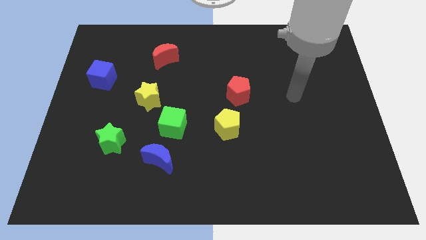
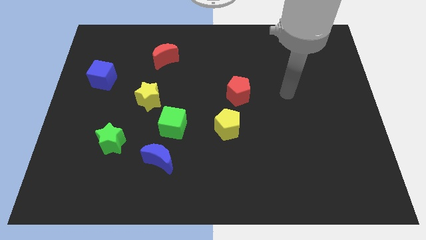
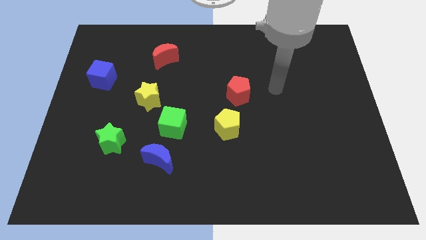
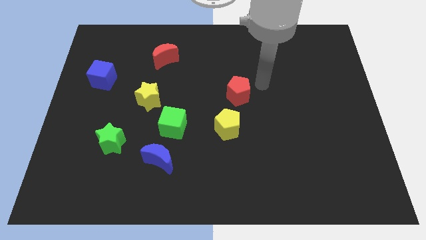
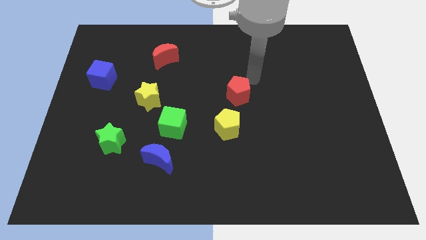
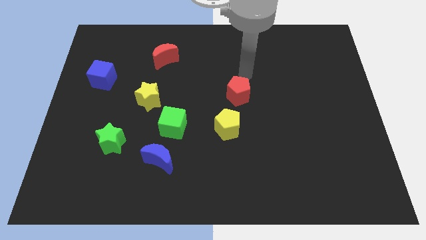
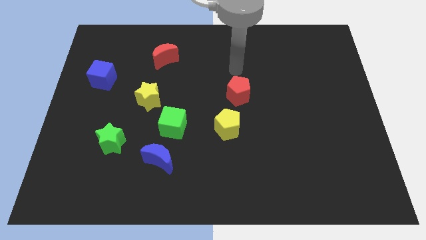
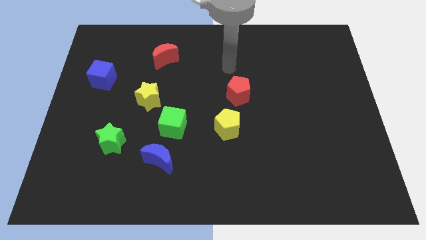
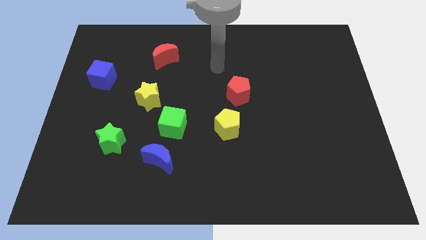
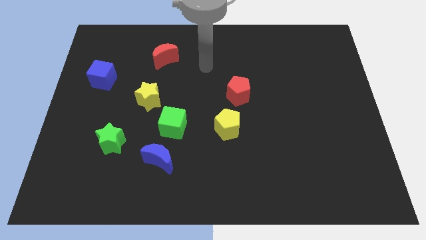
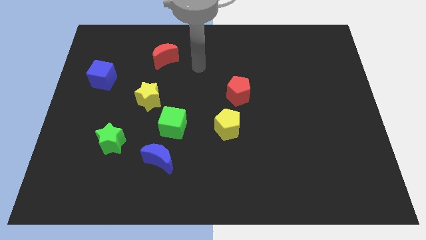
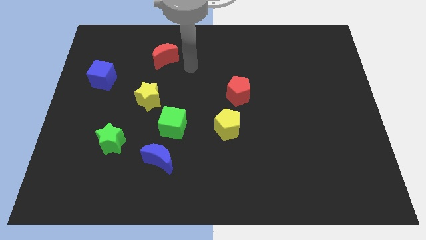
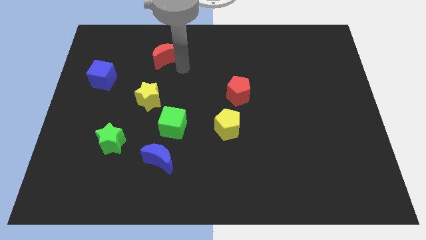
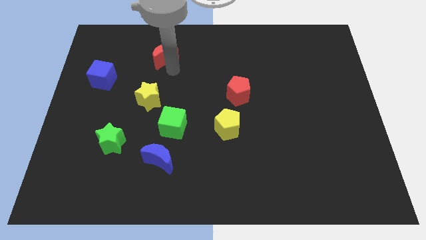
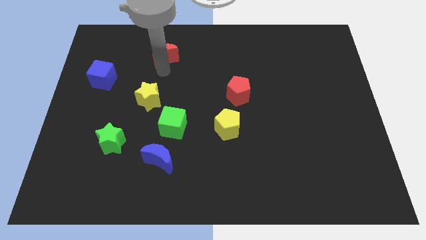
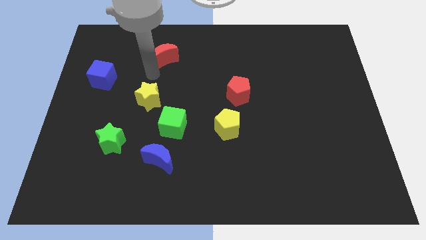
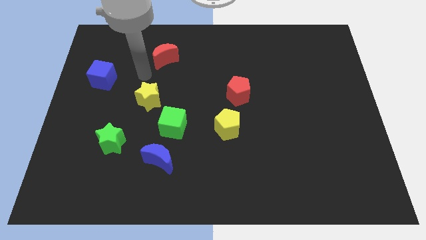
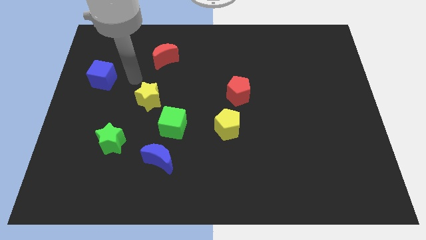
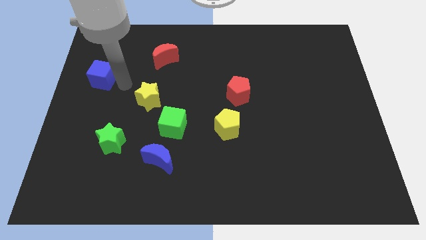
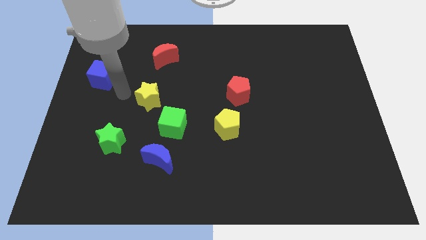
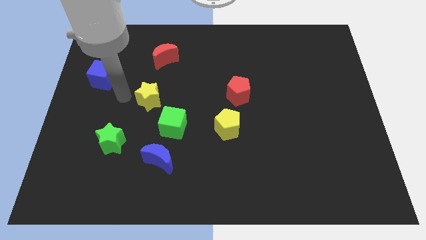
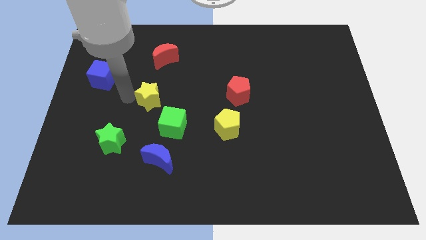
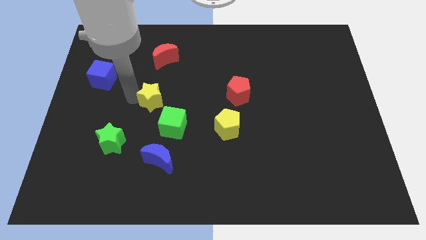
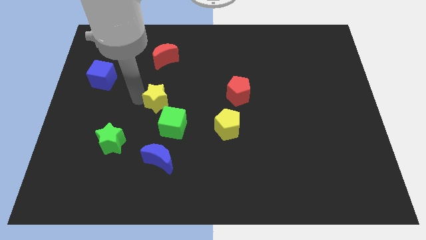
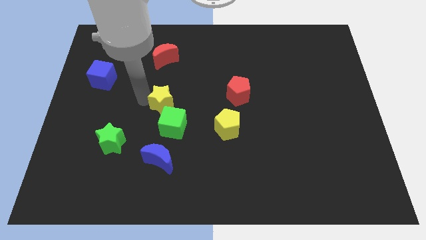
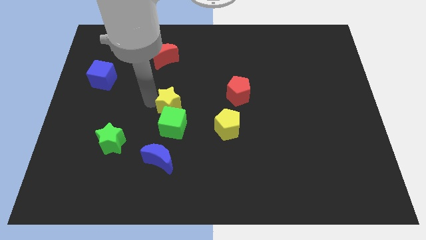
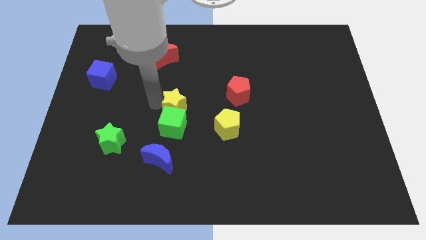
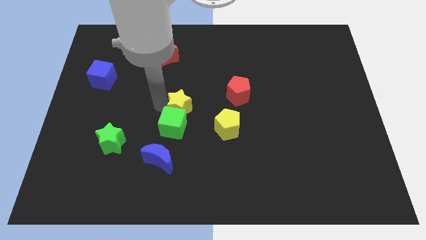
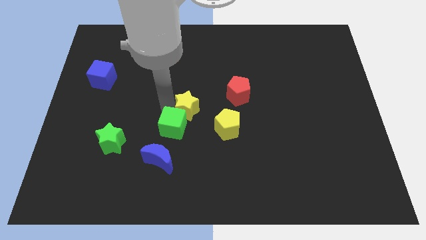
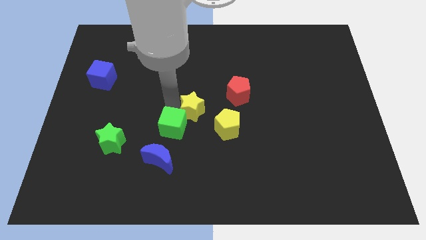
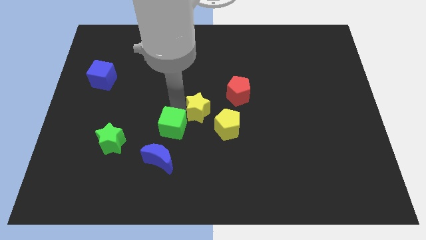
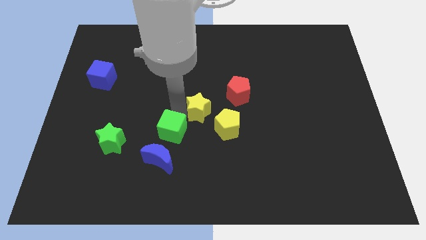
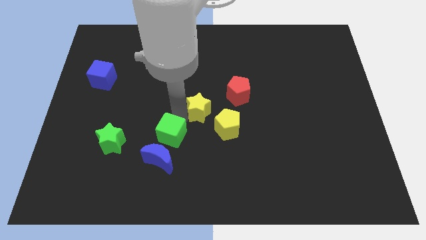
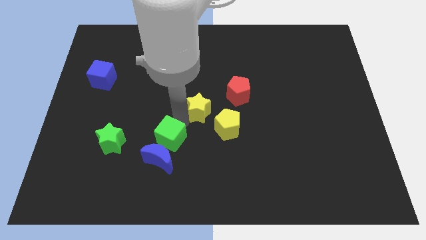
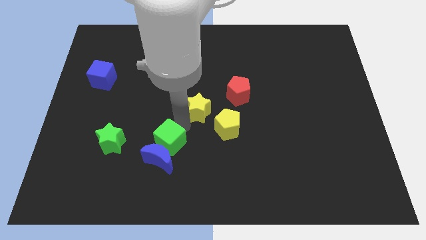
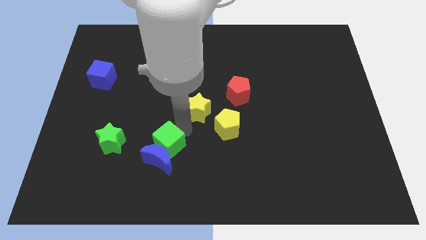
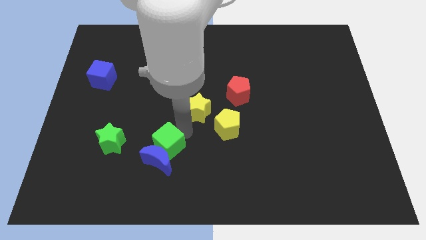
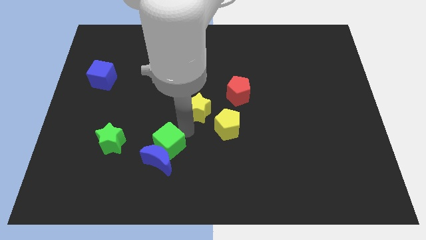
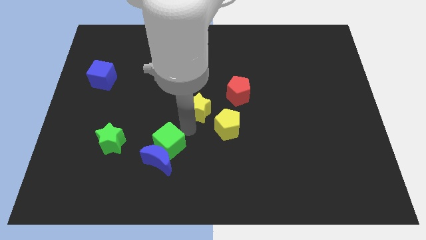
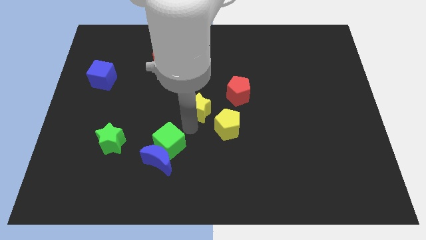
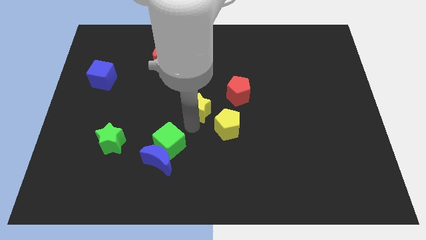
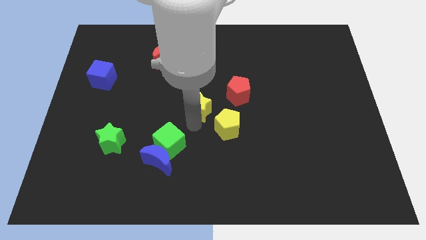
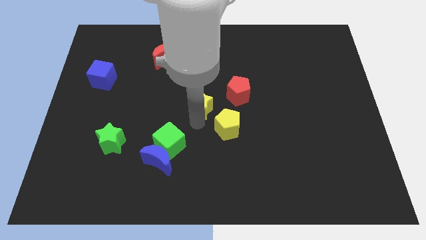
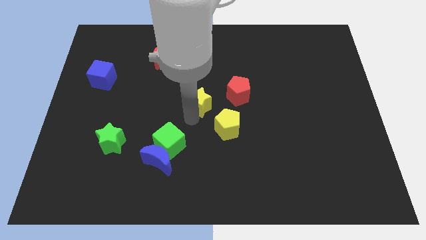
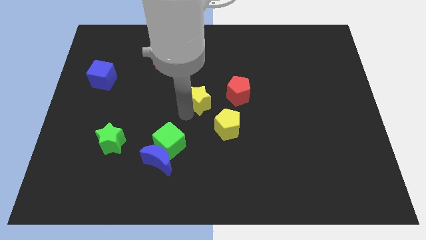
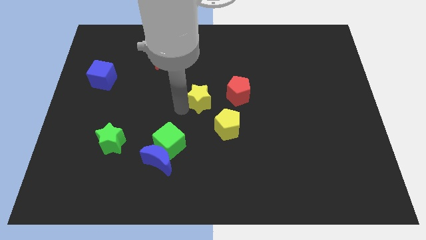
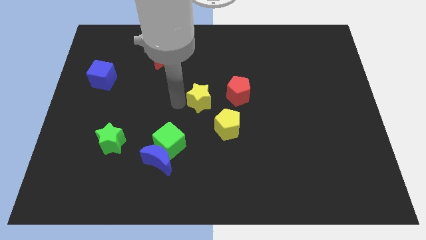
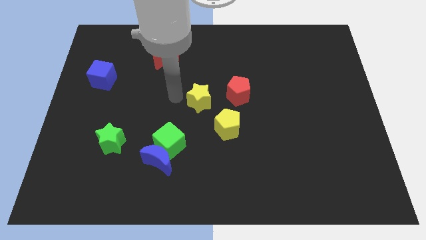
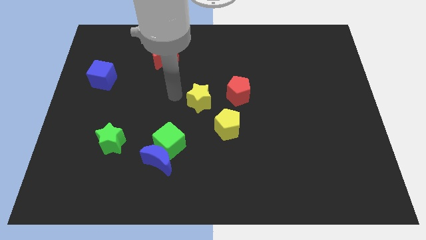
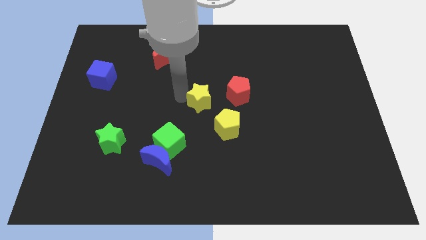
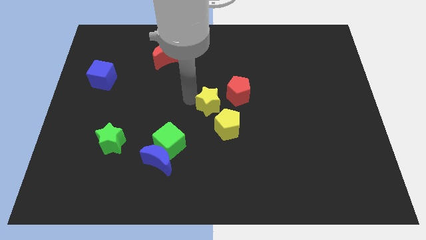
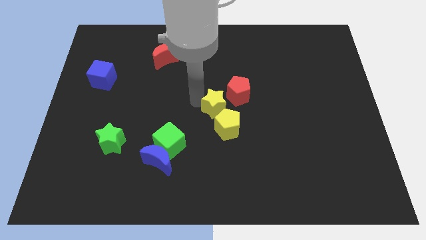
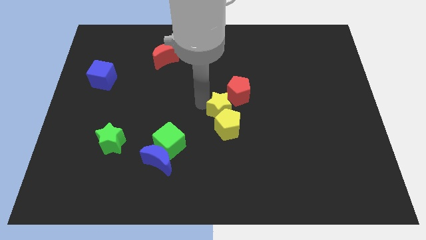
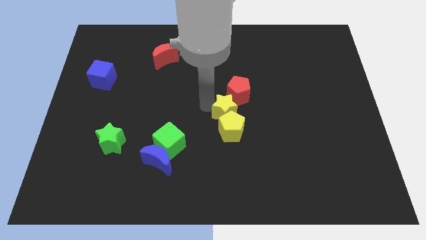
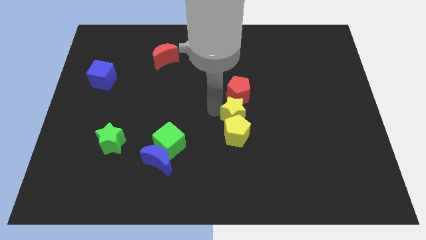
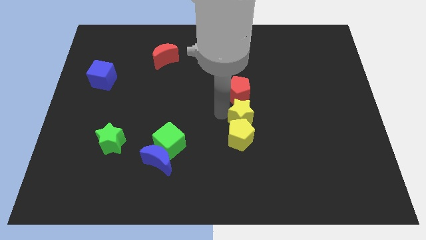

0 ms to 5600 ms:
slide the yellow star diagonally down and to the right of the red pentagon

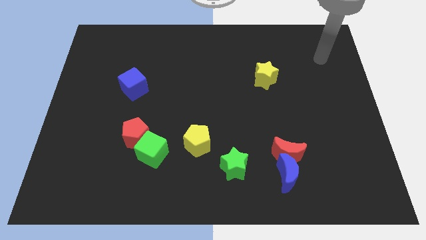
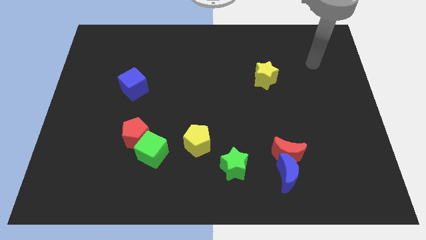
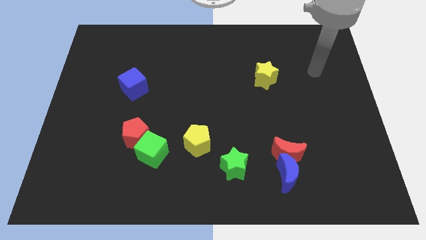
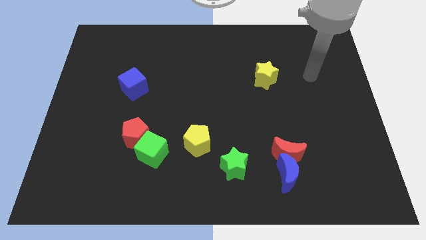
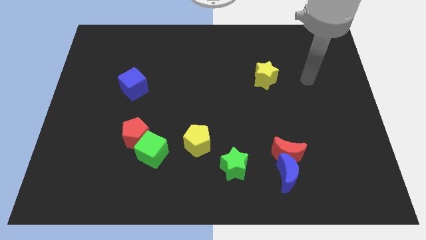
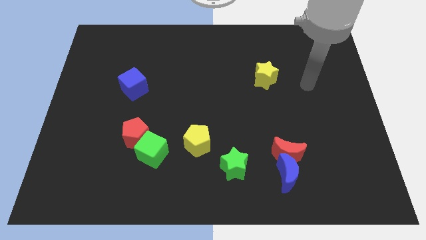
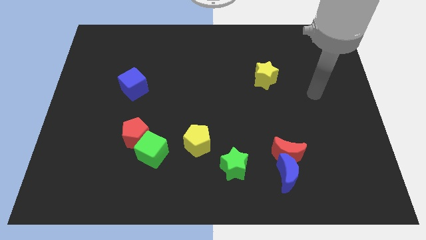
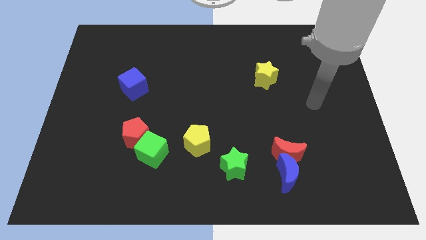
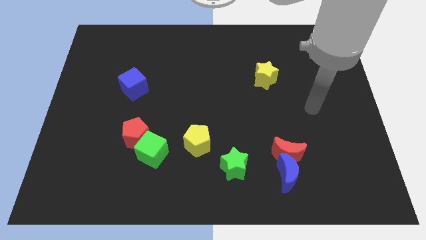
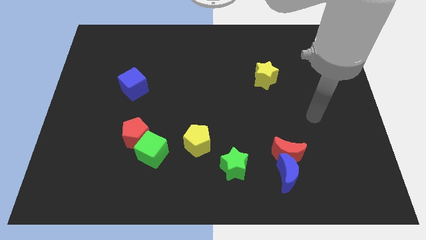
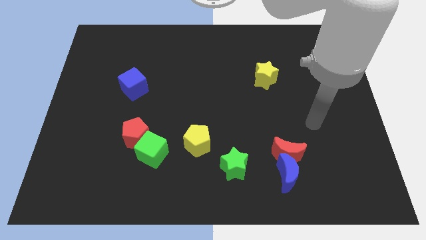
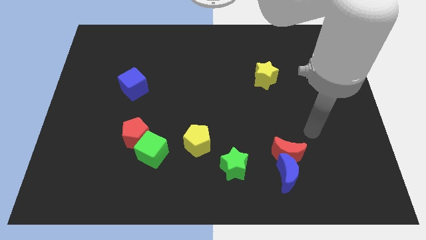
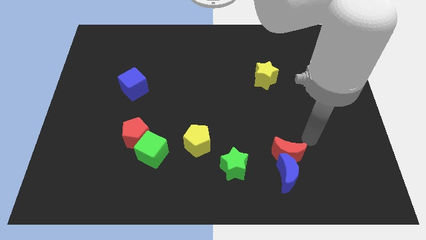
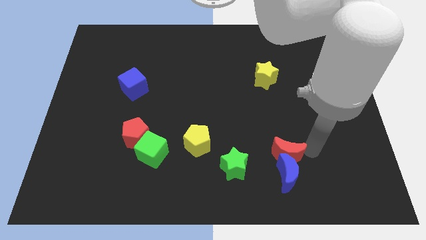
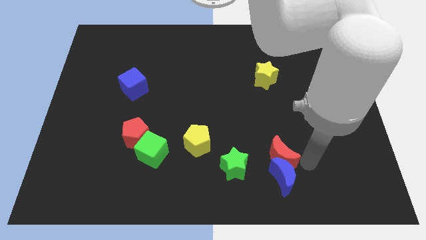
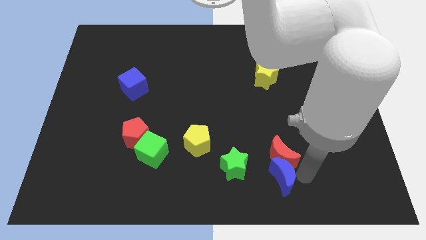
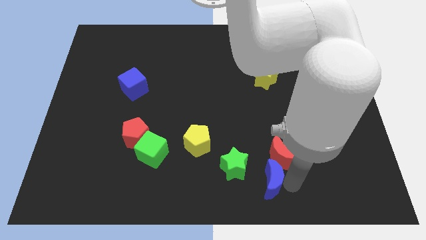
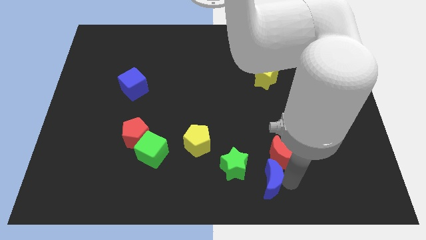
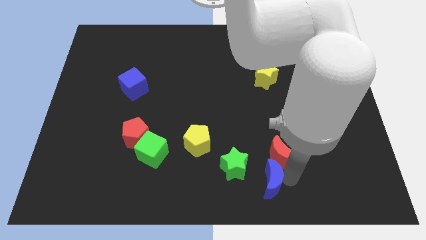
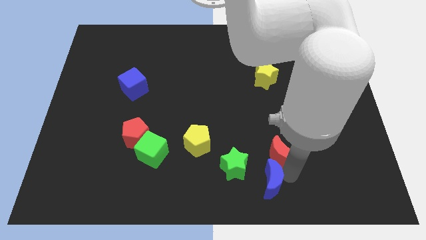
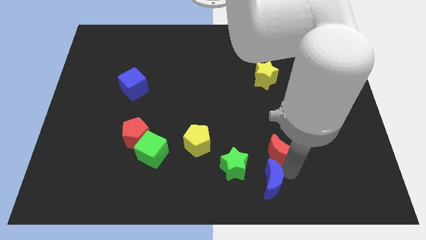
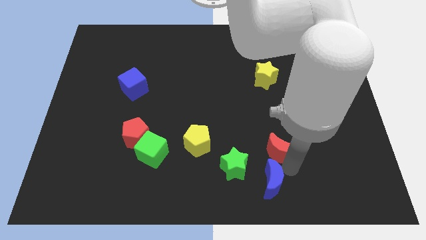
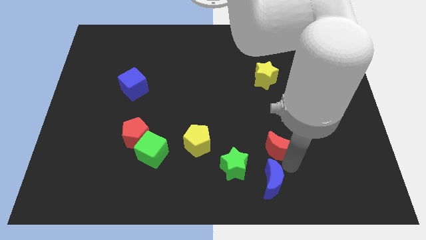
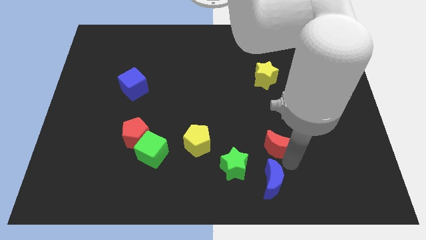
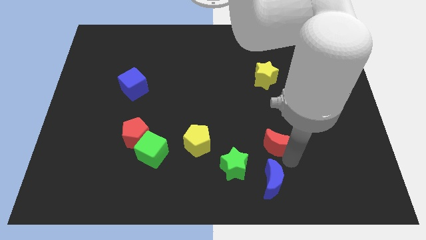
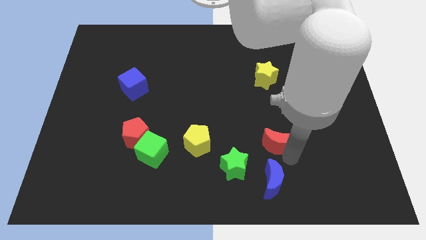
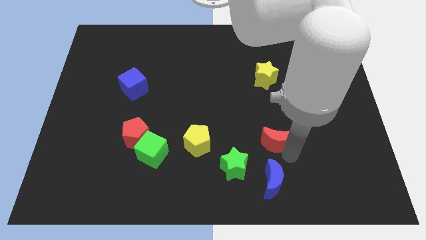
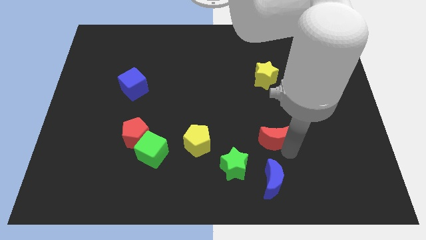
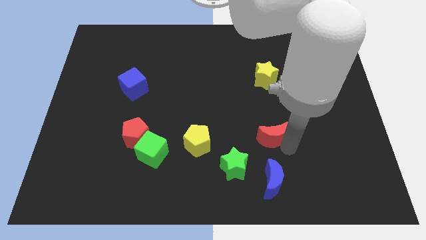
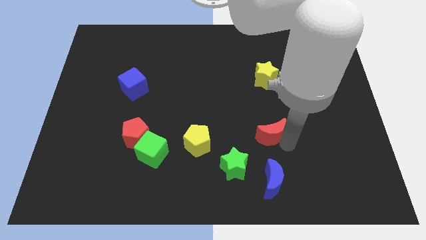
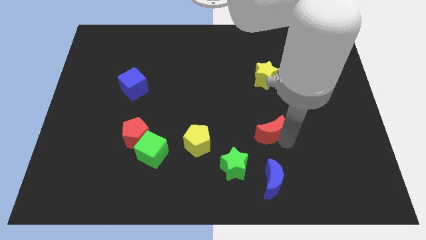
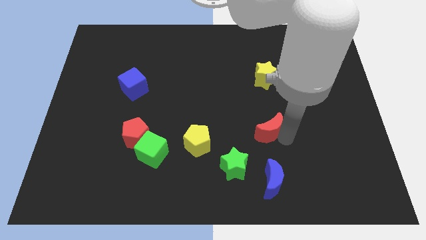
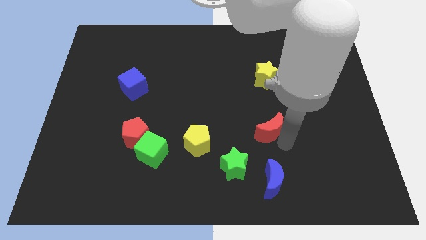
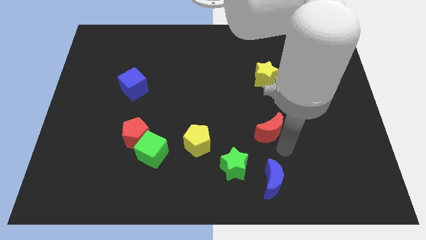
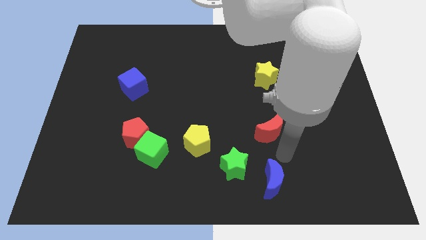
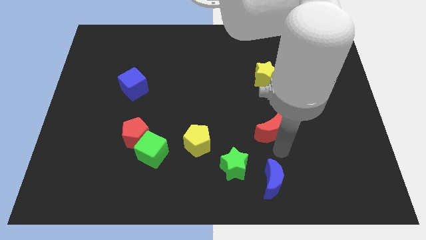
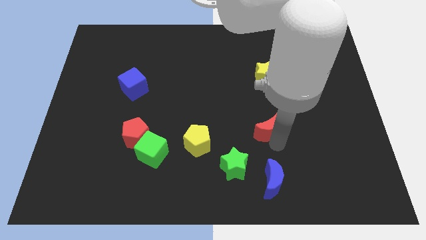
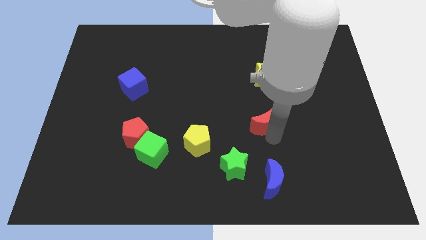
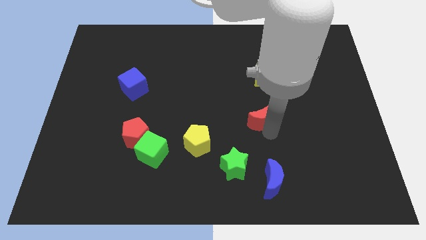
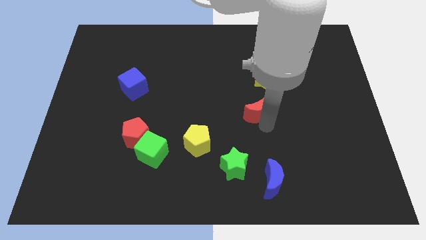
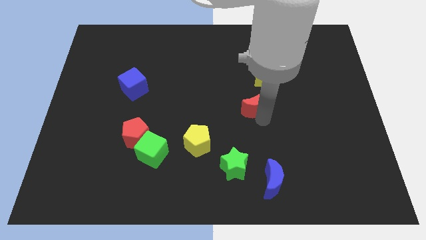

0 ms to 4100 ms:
slide the red moon to the bottom left side of the yellow star
